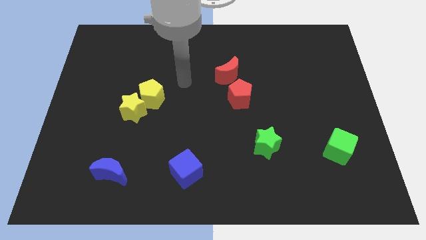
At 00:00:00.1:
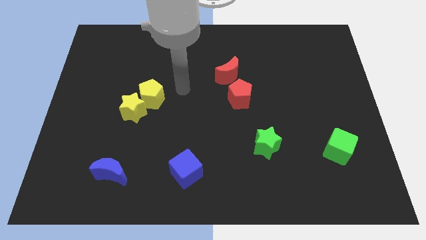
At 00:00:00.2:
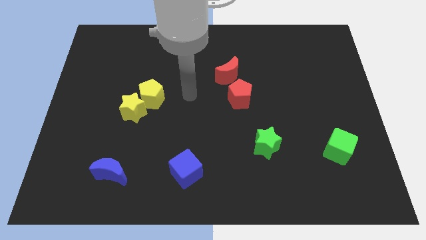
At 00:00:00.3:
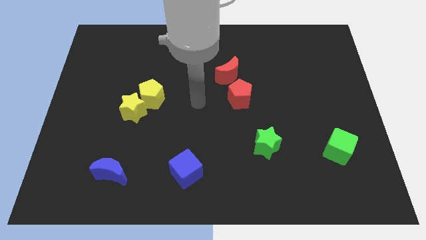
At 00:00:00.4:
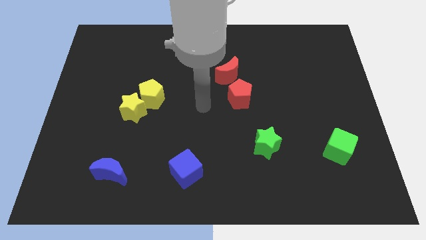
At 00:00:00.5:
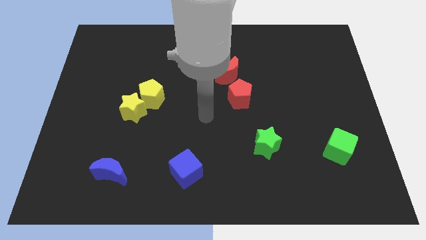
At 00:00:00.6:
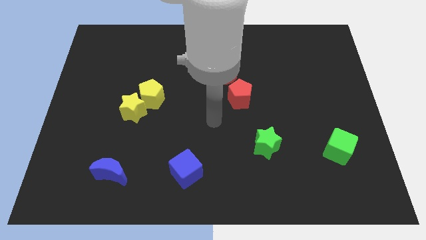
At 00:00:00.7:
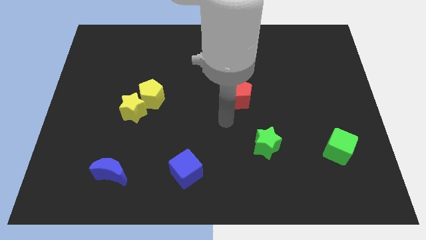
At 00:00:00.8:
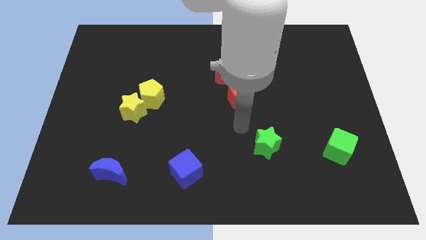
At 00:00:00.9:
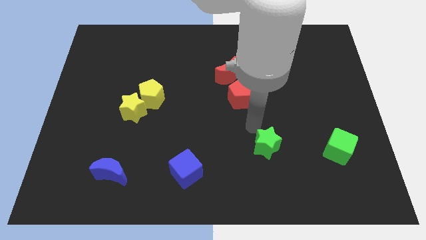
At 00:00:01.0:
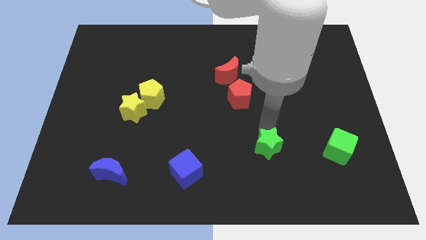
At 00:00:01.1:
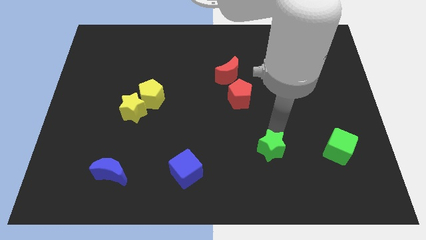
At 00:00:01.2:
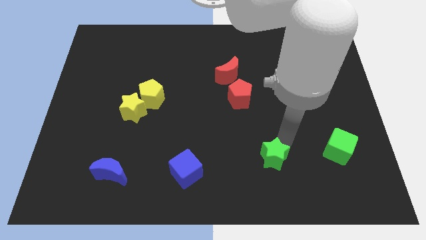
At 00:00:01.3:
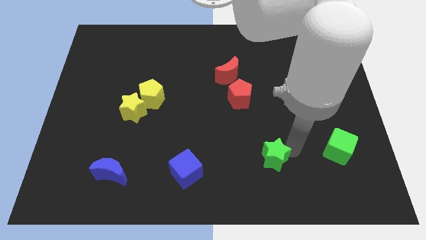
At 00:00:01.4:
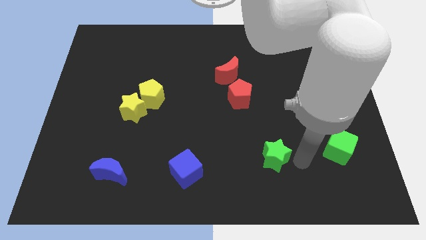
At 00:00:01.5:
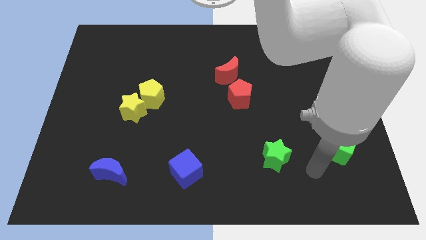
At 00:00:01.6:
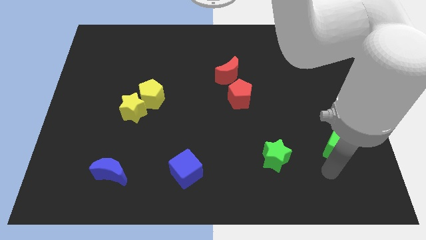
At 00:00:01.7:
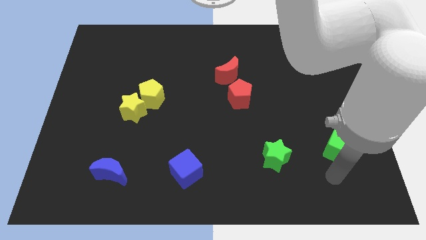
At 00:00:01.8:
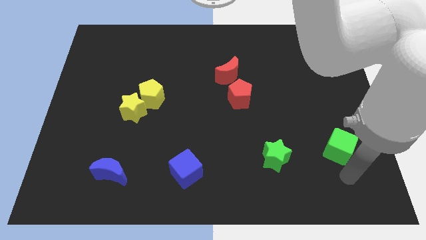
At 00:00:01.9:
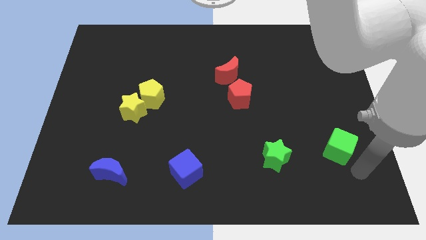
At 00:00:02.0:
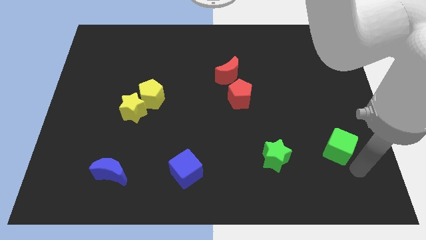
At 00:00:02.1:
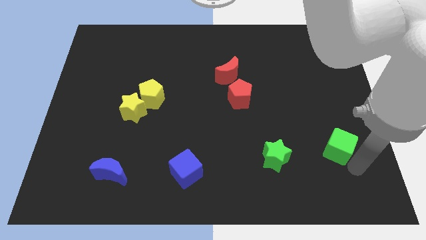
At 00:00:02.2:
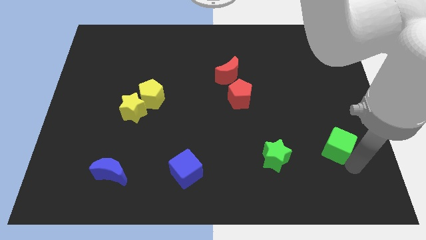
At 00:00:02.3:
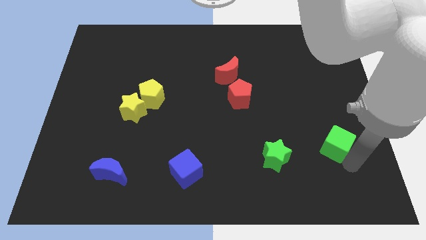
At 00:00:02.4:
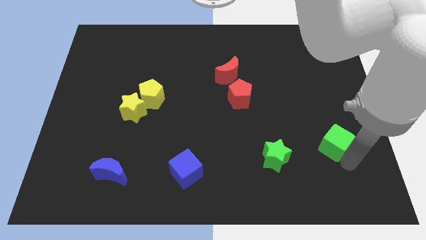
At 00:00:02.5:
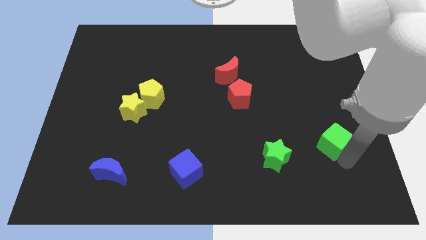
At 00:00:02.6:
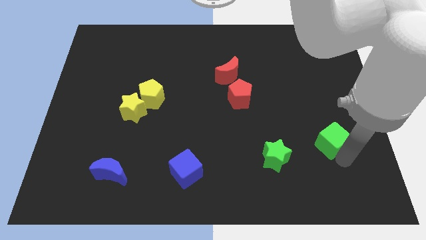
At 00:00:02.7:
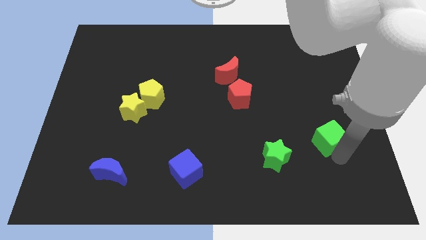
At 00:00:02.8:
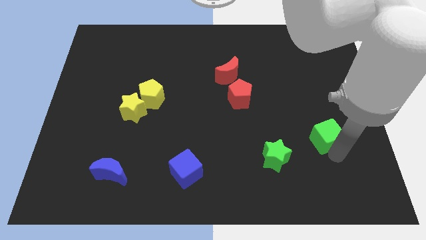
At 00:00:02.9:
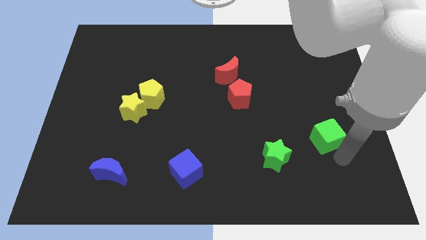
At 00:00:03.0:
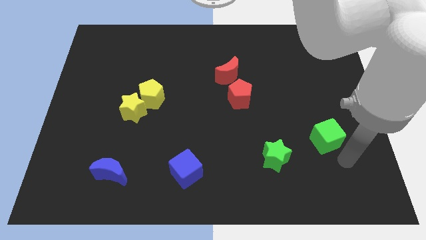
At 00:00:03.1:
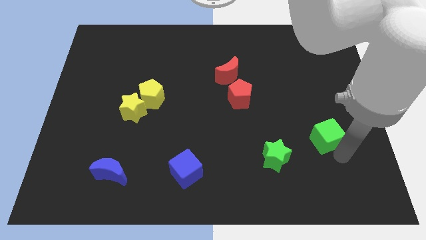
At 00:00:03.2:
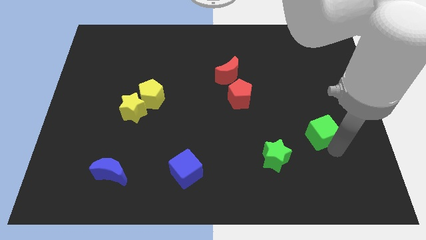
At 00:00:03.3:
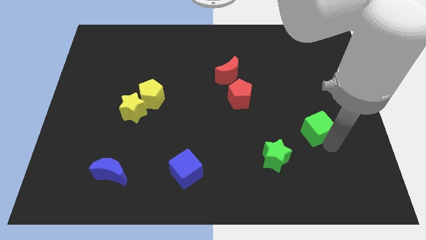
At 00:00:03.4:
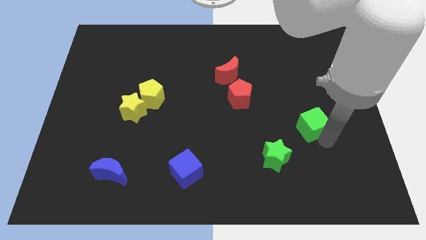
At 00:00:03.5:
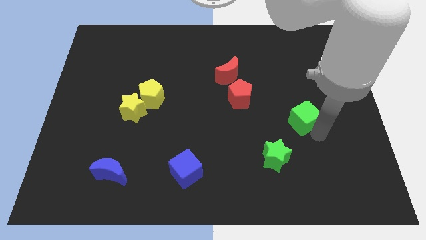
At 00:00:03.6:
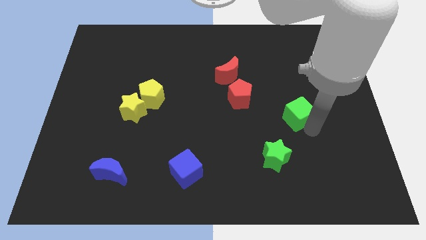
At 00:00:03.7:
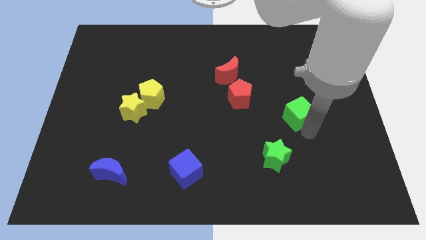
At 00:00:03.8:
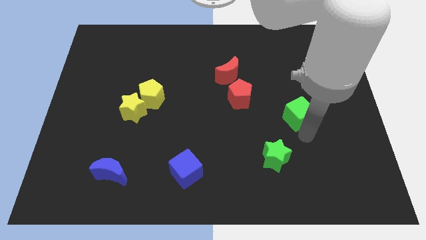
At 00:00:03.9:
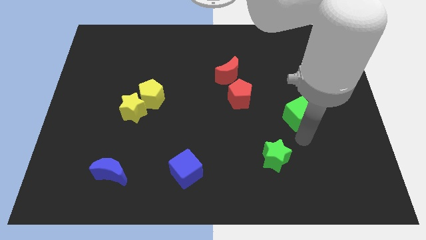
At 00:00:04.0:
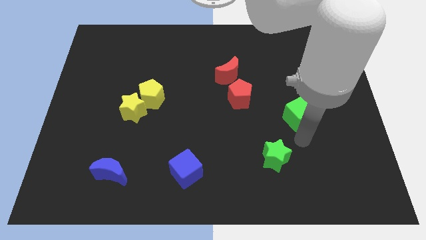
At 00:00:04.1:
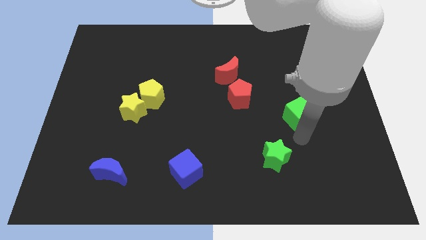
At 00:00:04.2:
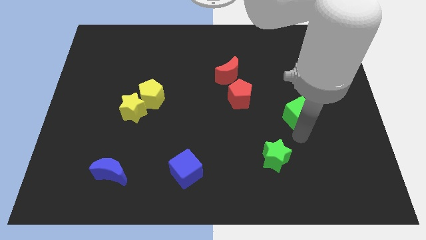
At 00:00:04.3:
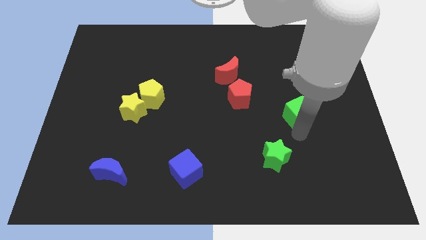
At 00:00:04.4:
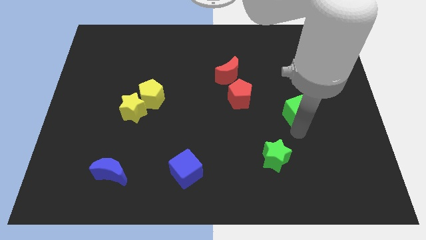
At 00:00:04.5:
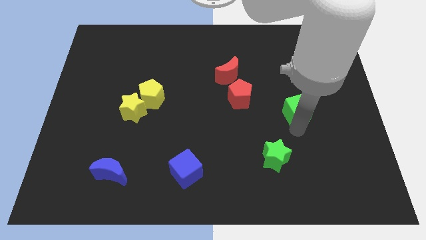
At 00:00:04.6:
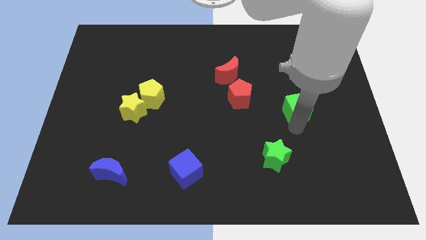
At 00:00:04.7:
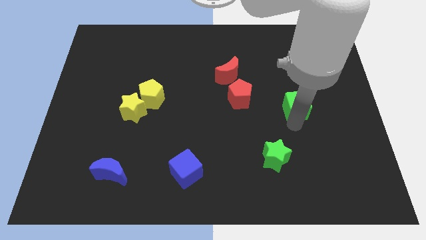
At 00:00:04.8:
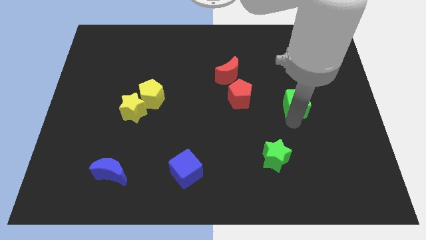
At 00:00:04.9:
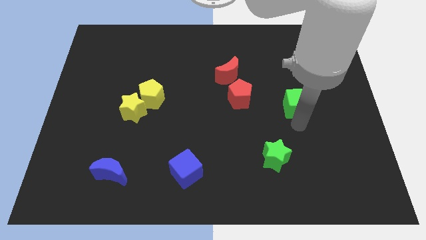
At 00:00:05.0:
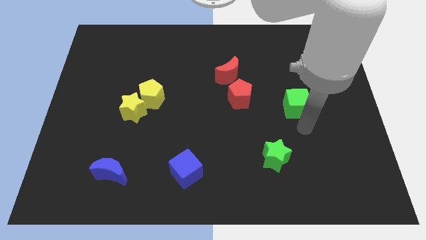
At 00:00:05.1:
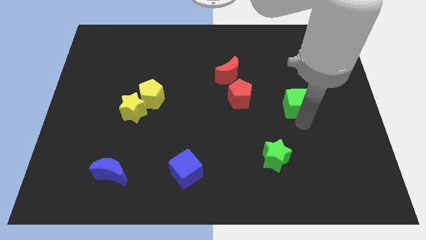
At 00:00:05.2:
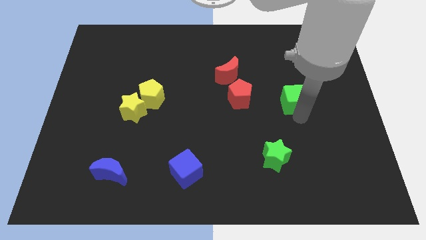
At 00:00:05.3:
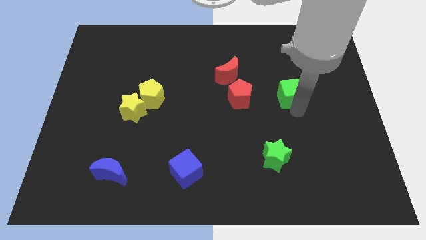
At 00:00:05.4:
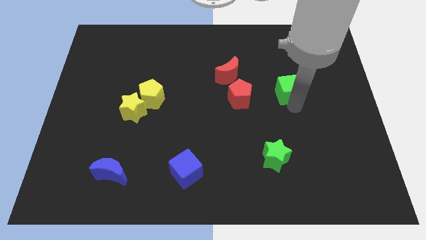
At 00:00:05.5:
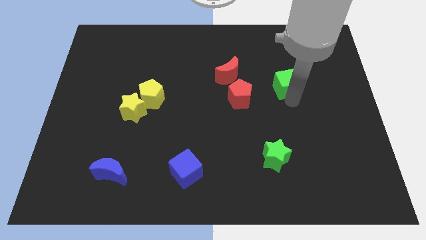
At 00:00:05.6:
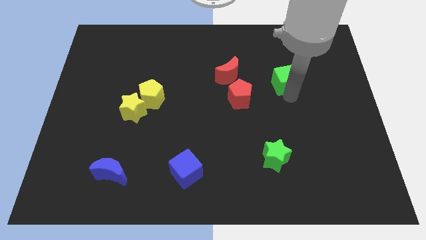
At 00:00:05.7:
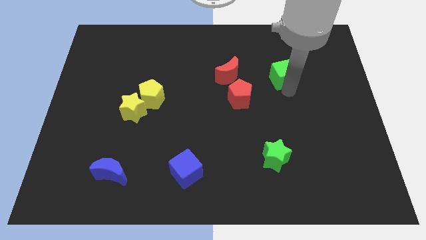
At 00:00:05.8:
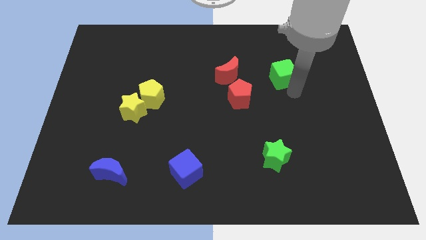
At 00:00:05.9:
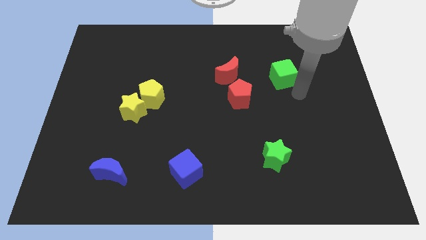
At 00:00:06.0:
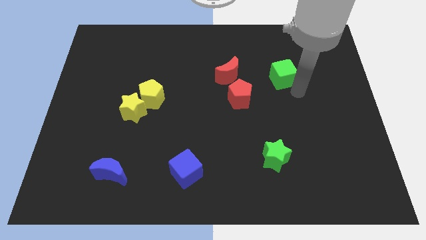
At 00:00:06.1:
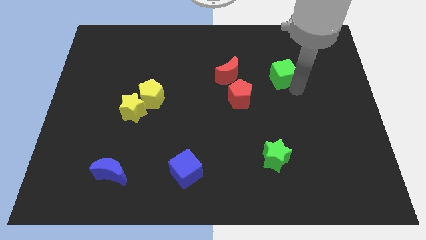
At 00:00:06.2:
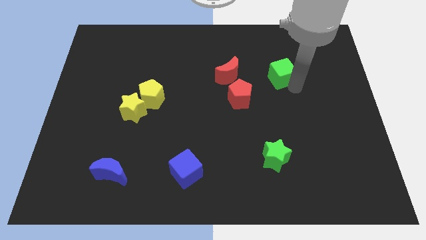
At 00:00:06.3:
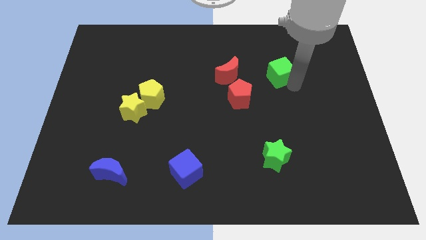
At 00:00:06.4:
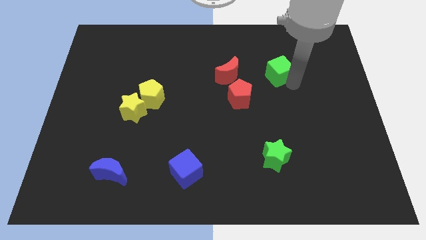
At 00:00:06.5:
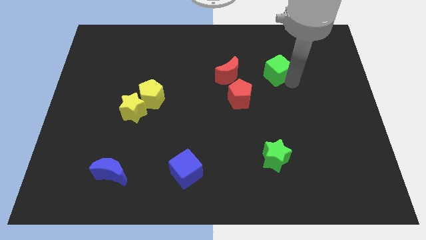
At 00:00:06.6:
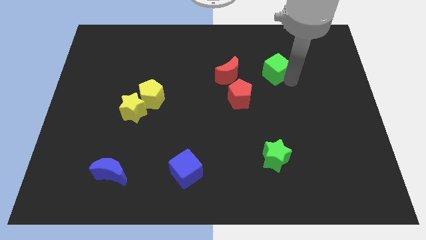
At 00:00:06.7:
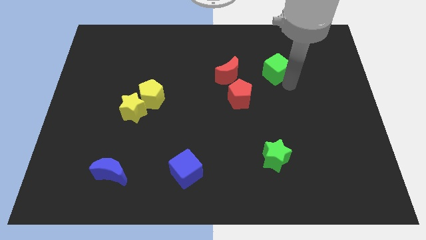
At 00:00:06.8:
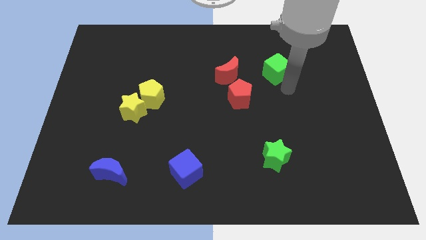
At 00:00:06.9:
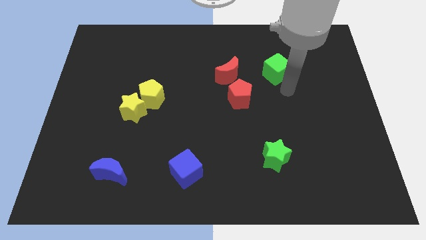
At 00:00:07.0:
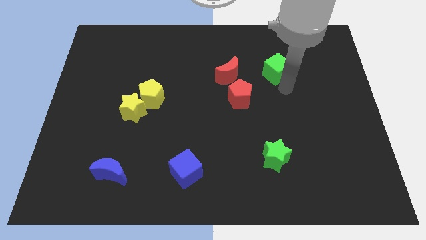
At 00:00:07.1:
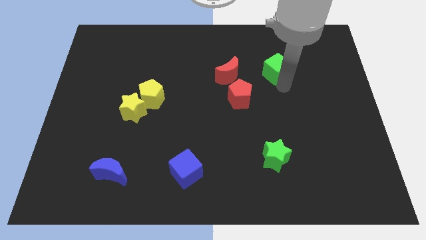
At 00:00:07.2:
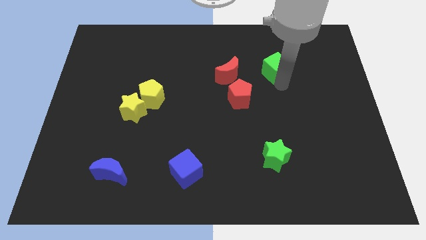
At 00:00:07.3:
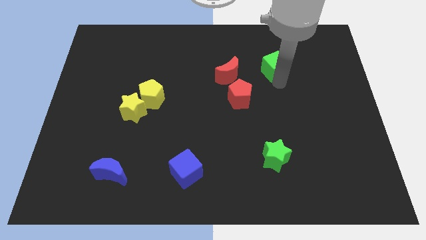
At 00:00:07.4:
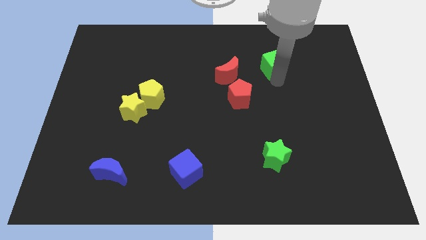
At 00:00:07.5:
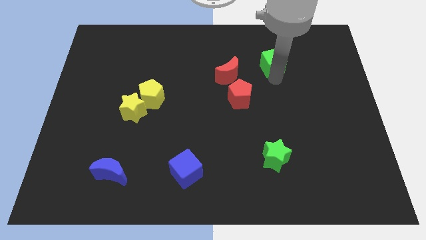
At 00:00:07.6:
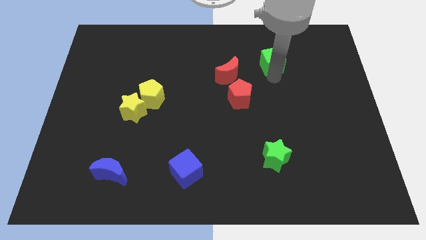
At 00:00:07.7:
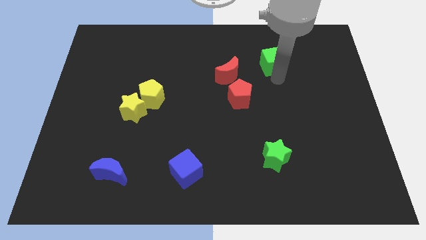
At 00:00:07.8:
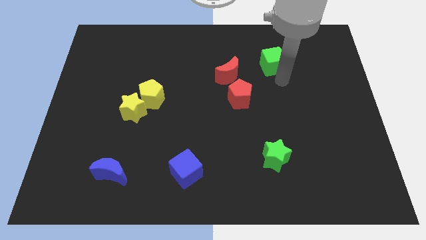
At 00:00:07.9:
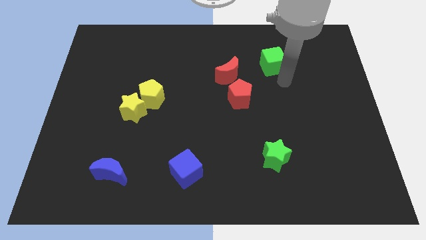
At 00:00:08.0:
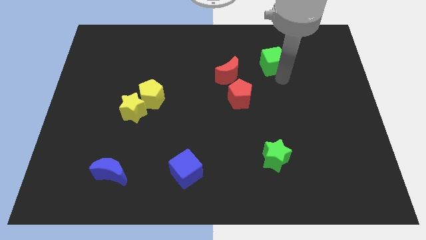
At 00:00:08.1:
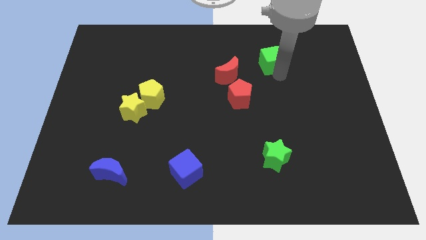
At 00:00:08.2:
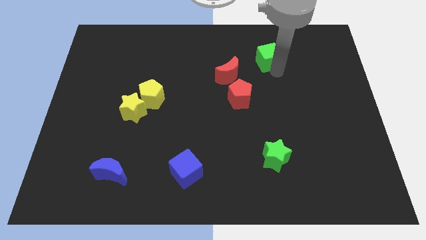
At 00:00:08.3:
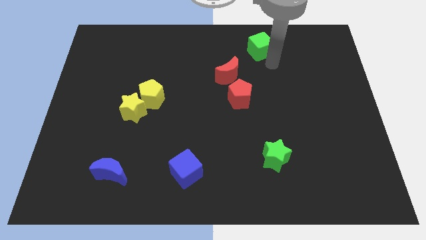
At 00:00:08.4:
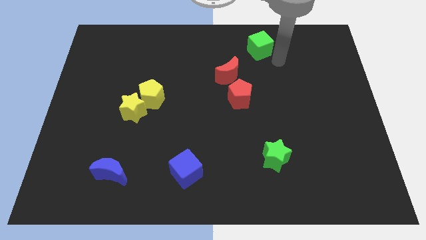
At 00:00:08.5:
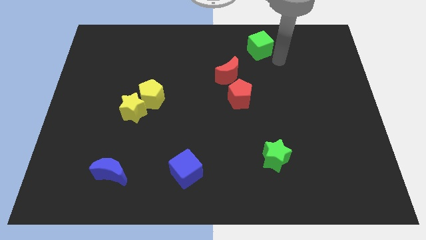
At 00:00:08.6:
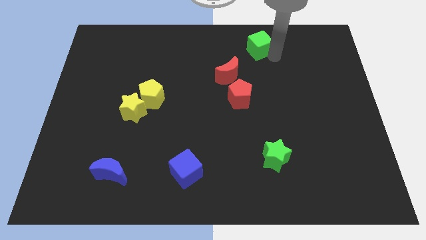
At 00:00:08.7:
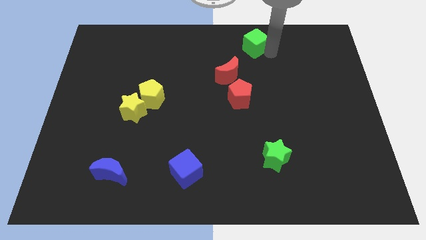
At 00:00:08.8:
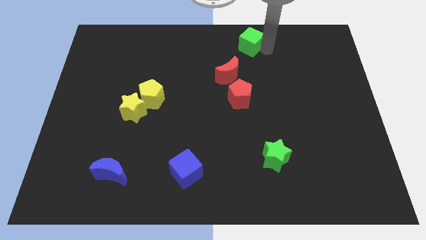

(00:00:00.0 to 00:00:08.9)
move the green cube to the top side
